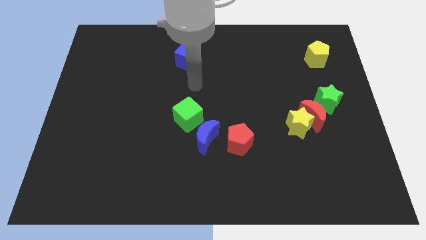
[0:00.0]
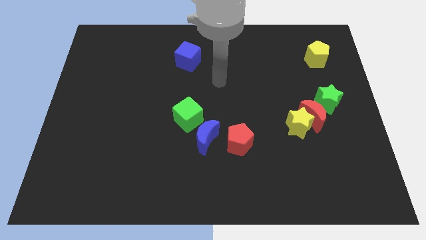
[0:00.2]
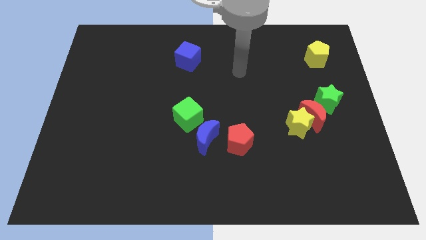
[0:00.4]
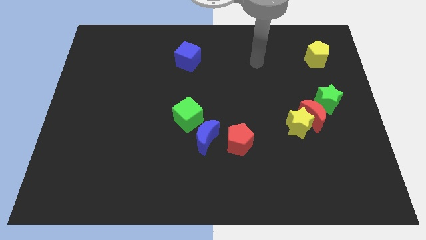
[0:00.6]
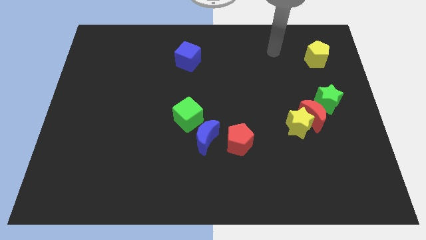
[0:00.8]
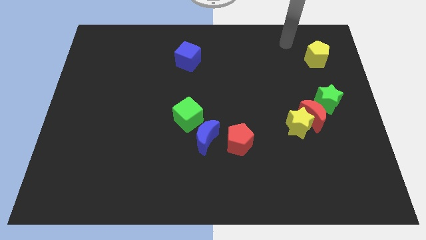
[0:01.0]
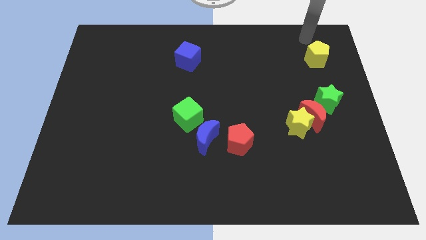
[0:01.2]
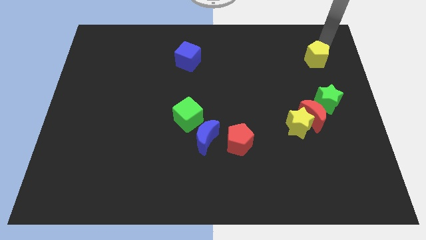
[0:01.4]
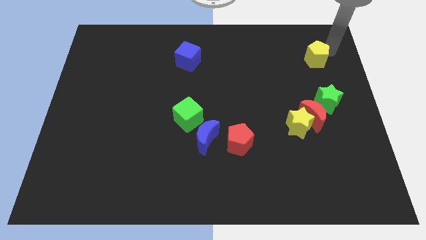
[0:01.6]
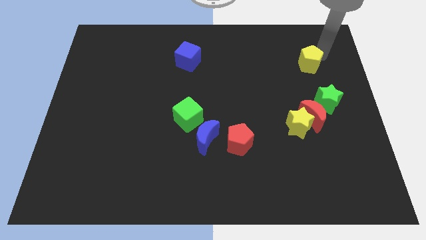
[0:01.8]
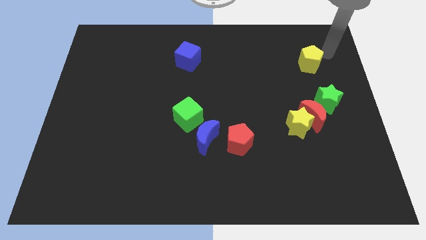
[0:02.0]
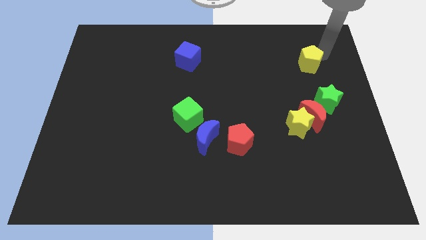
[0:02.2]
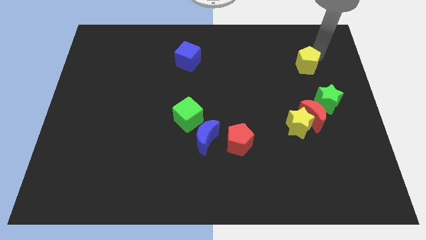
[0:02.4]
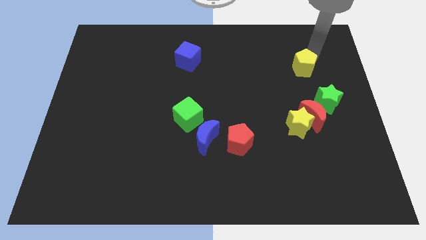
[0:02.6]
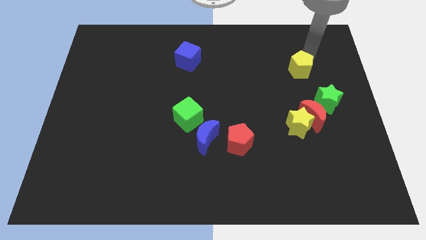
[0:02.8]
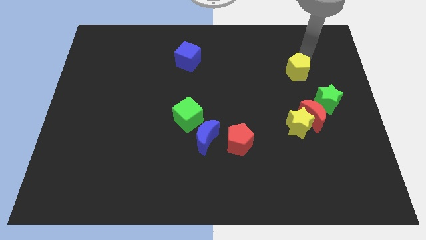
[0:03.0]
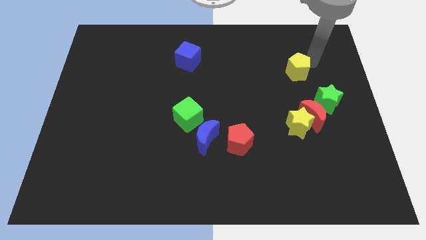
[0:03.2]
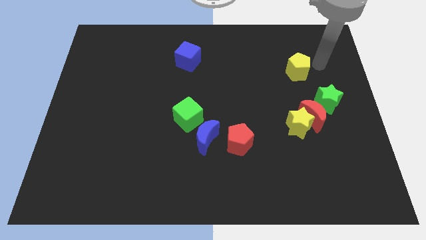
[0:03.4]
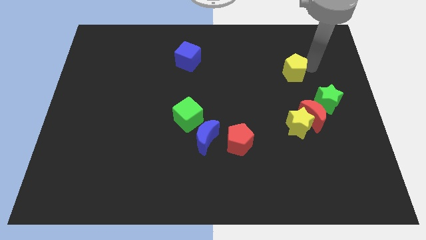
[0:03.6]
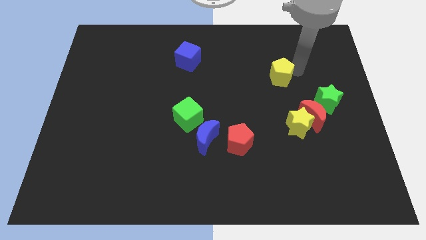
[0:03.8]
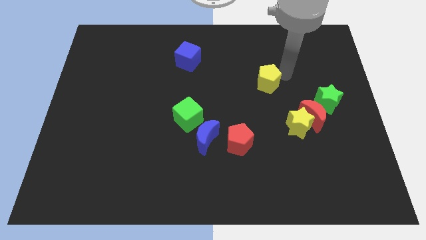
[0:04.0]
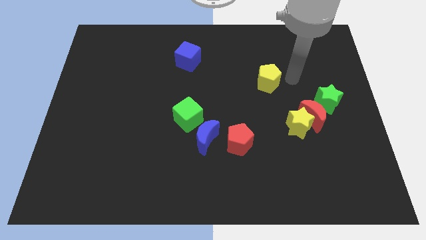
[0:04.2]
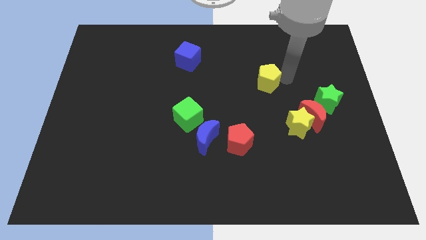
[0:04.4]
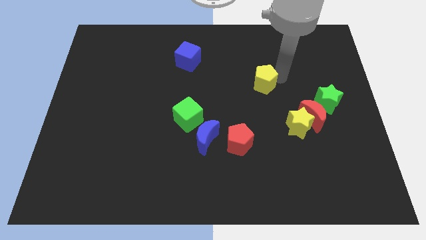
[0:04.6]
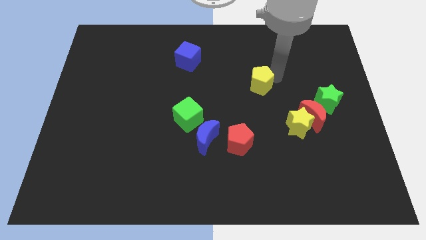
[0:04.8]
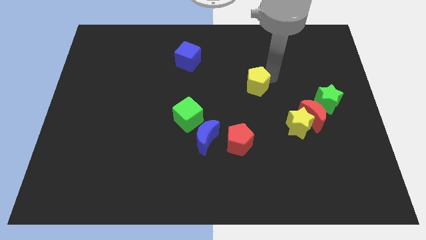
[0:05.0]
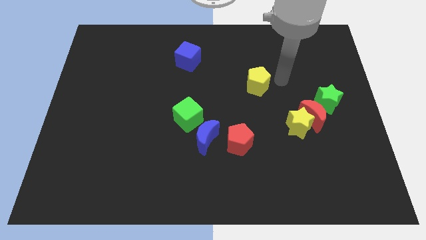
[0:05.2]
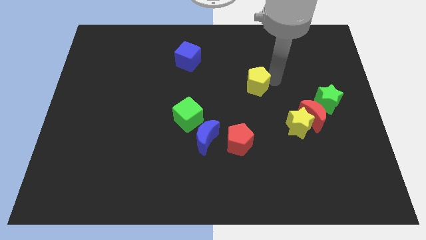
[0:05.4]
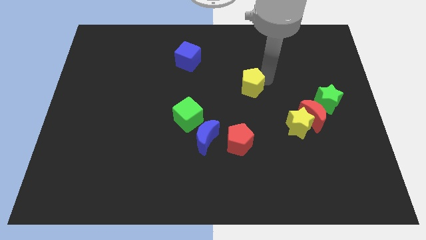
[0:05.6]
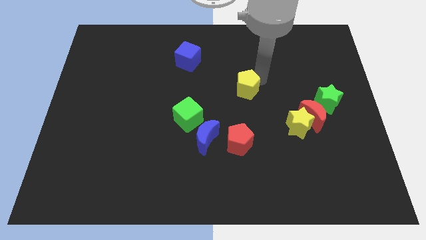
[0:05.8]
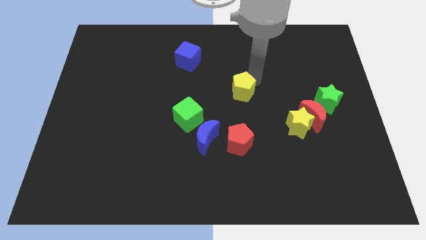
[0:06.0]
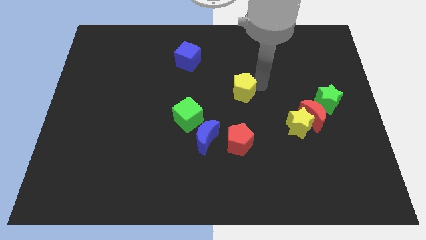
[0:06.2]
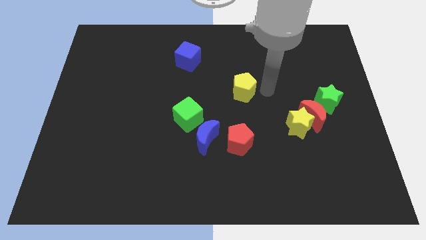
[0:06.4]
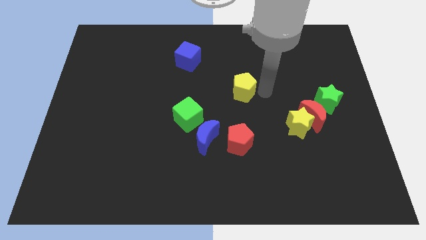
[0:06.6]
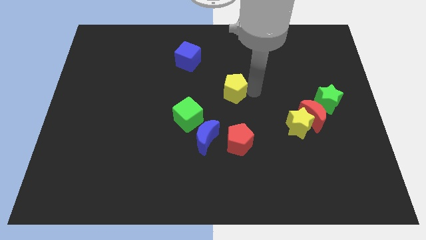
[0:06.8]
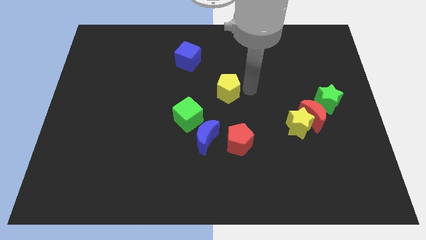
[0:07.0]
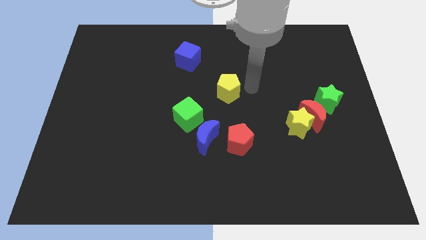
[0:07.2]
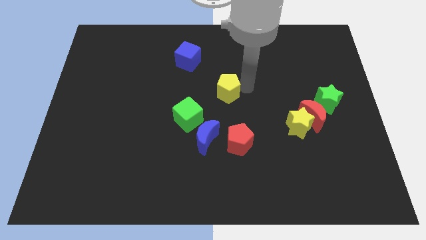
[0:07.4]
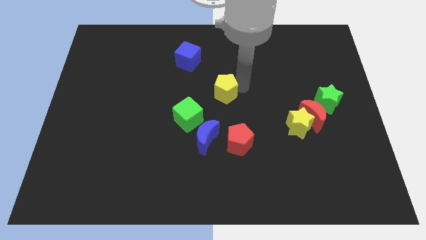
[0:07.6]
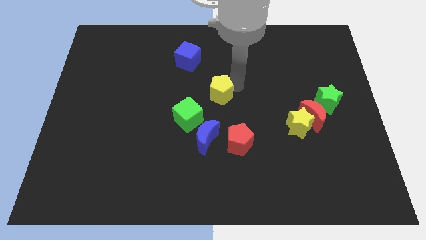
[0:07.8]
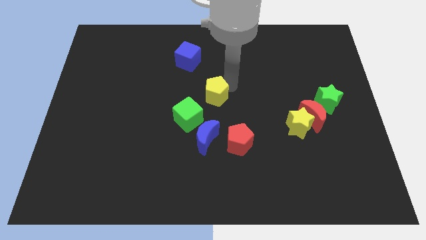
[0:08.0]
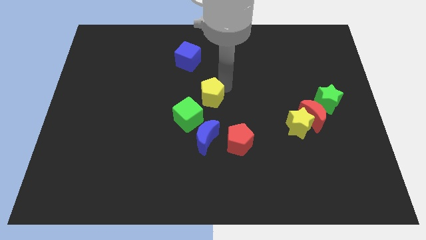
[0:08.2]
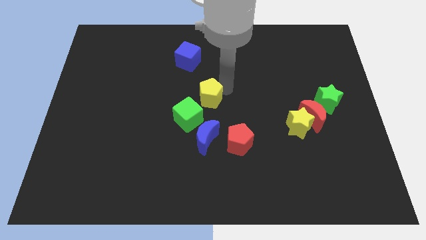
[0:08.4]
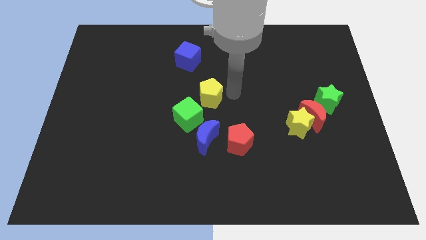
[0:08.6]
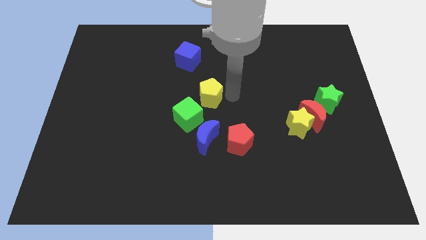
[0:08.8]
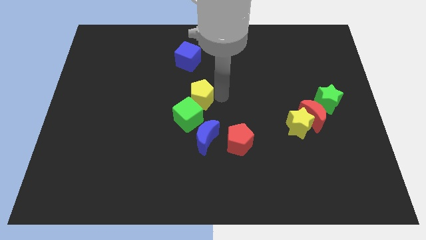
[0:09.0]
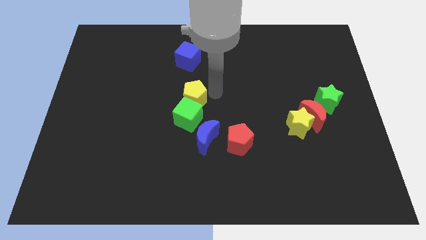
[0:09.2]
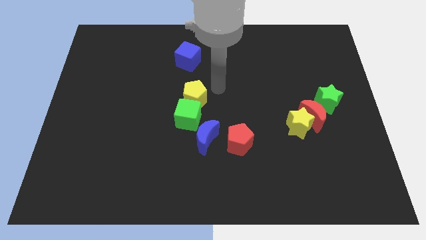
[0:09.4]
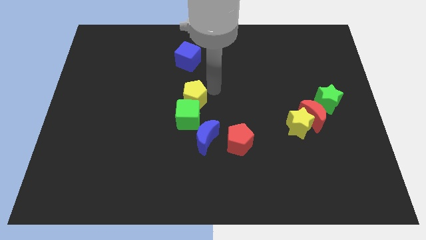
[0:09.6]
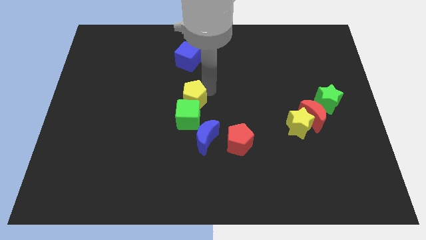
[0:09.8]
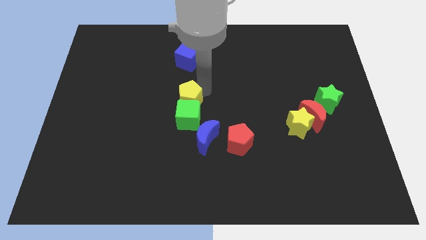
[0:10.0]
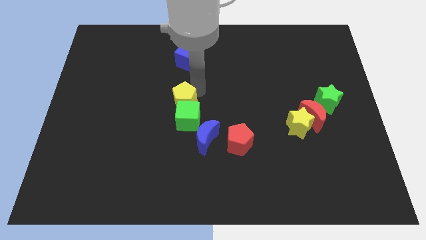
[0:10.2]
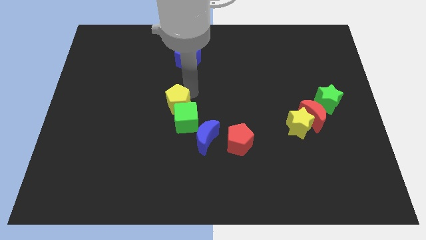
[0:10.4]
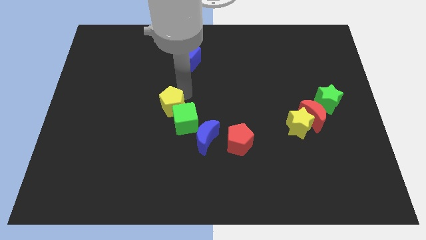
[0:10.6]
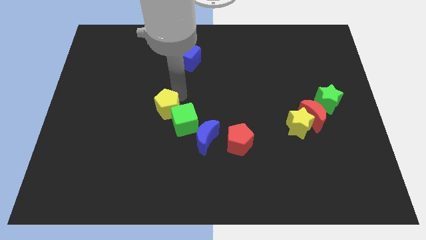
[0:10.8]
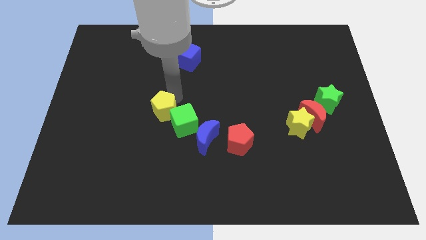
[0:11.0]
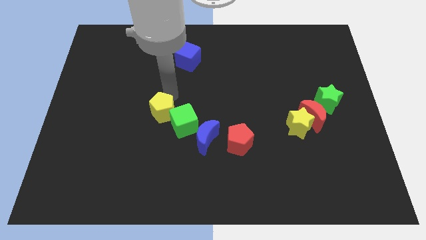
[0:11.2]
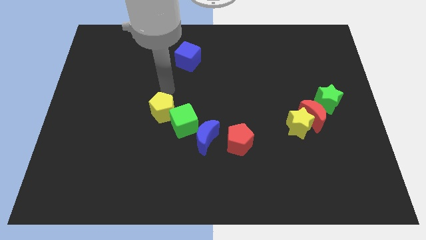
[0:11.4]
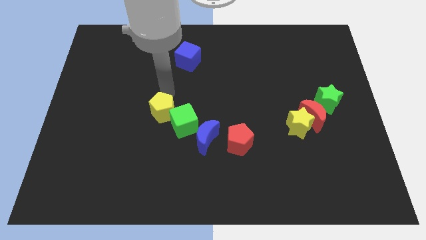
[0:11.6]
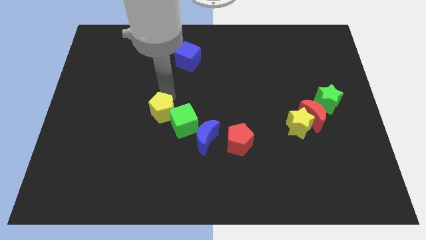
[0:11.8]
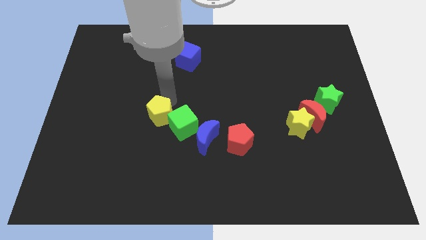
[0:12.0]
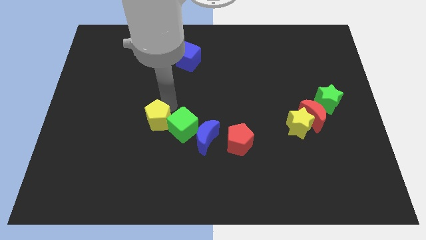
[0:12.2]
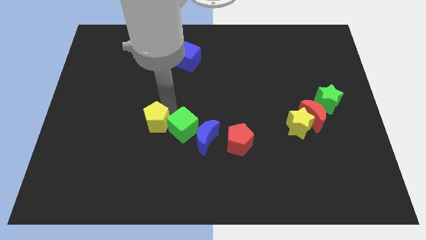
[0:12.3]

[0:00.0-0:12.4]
push the yellow pentagon left of the blue moon

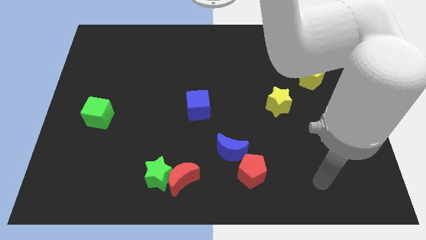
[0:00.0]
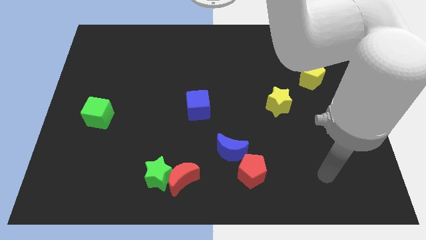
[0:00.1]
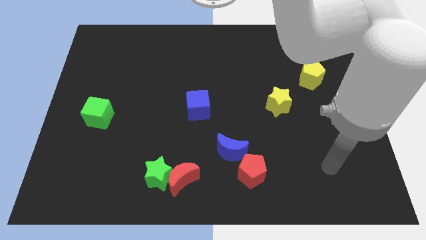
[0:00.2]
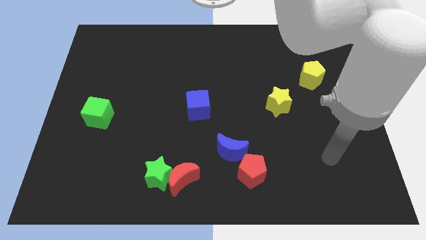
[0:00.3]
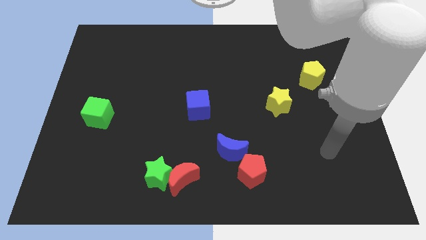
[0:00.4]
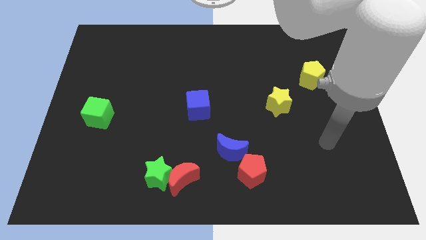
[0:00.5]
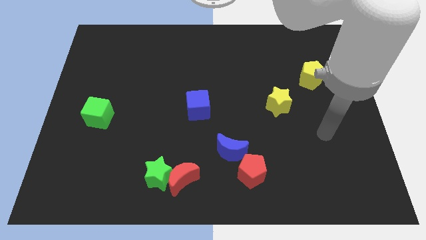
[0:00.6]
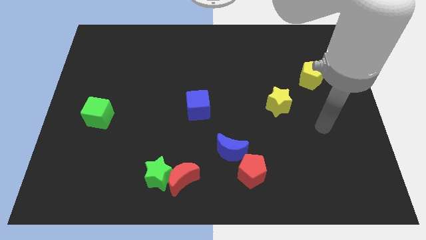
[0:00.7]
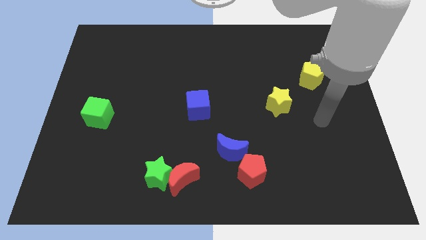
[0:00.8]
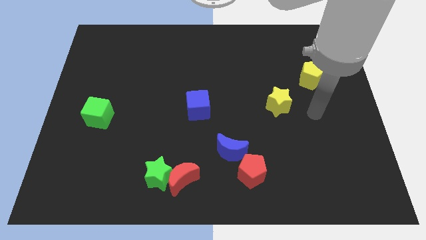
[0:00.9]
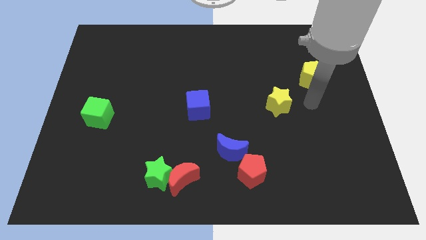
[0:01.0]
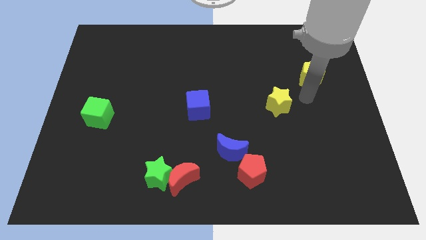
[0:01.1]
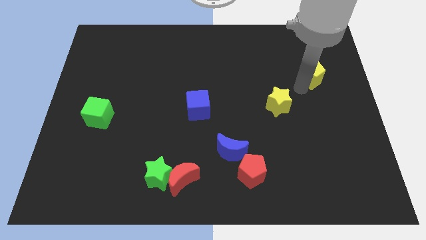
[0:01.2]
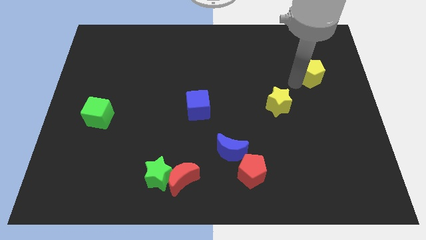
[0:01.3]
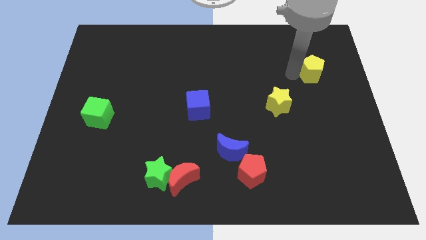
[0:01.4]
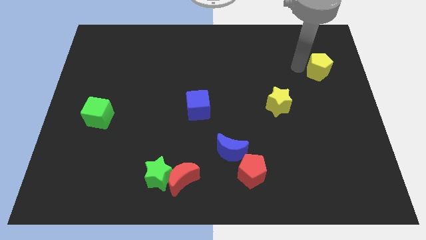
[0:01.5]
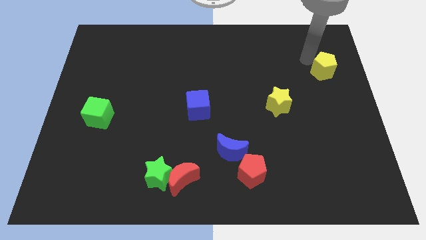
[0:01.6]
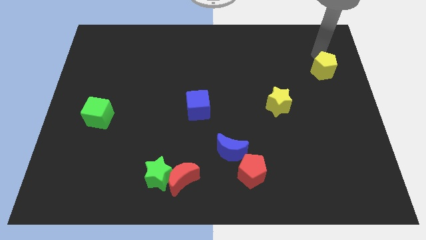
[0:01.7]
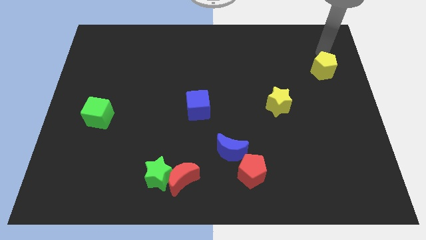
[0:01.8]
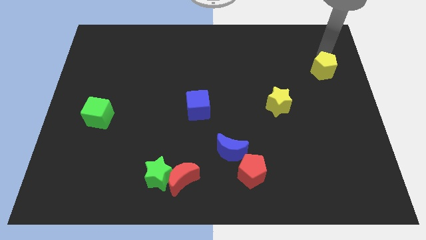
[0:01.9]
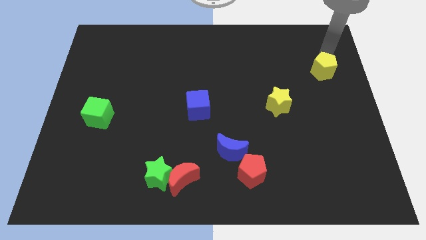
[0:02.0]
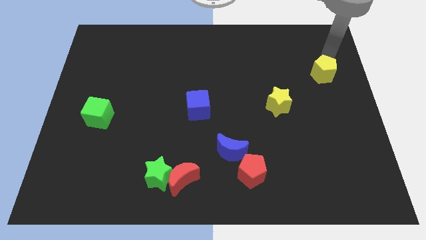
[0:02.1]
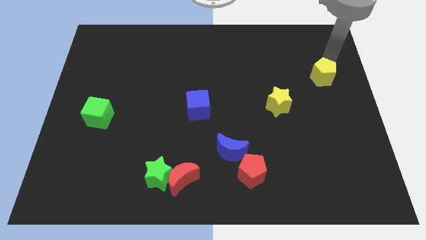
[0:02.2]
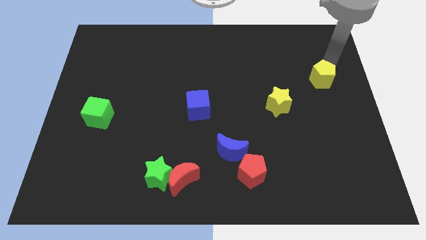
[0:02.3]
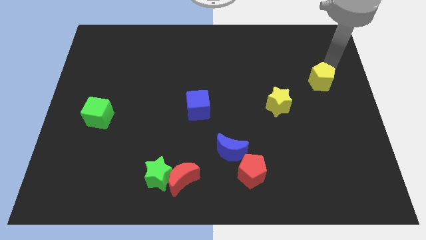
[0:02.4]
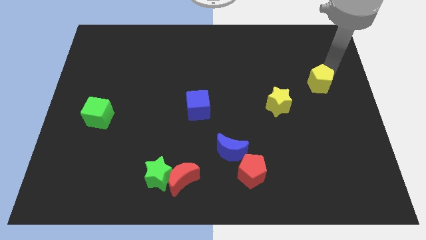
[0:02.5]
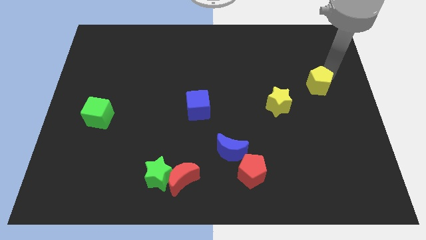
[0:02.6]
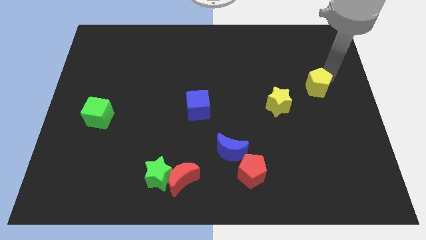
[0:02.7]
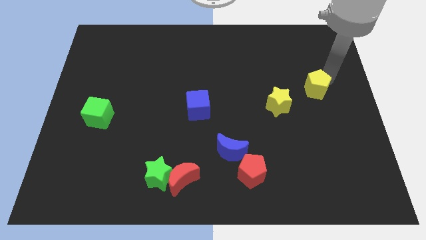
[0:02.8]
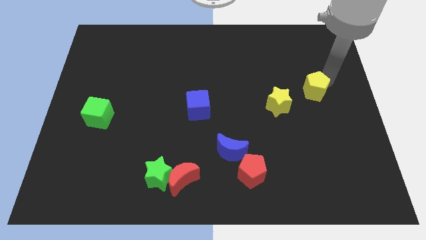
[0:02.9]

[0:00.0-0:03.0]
slide the yellow pentagon just right of the yellow star
